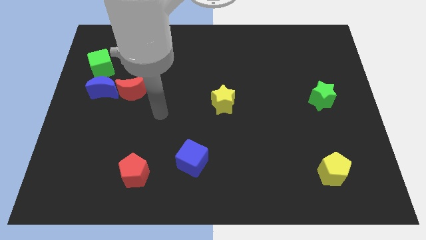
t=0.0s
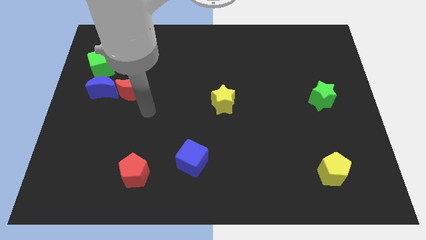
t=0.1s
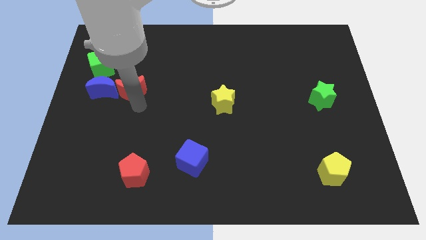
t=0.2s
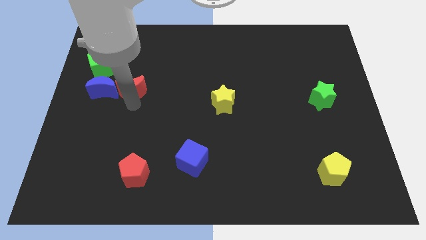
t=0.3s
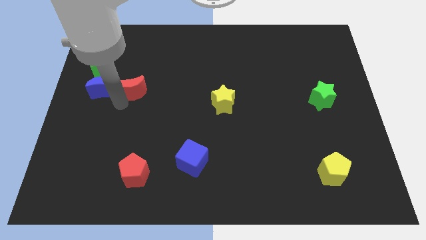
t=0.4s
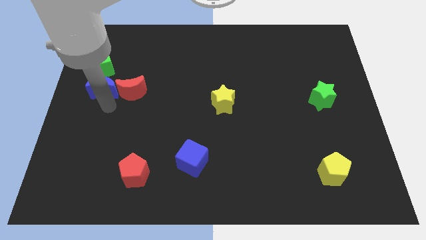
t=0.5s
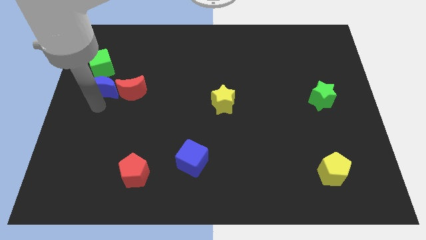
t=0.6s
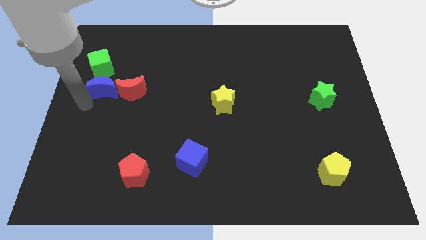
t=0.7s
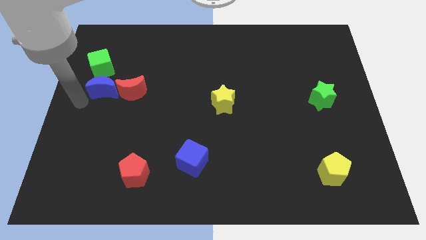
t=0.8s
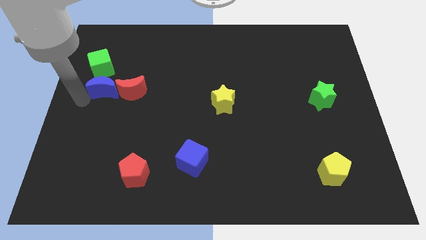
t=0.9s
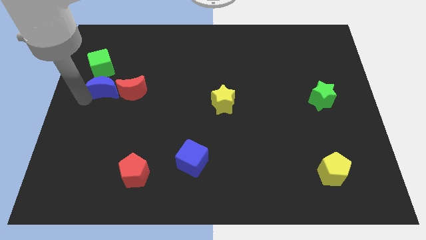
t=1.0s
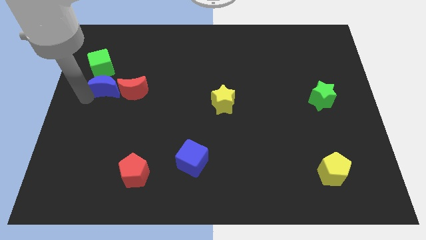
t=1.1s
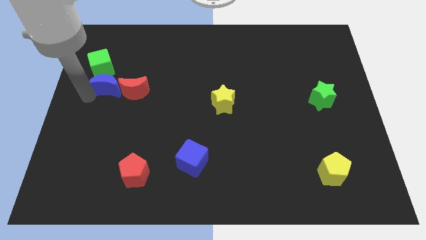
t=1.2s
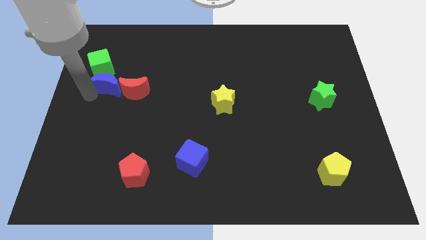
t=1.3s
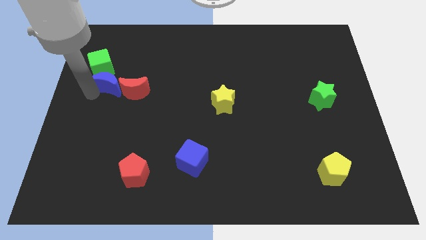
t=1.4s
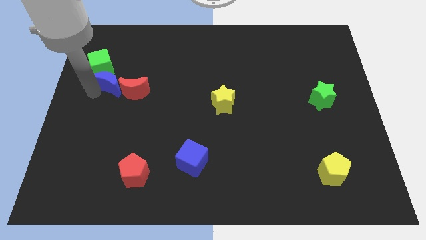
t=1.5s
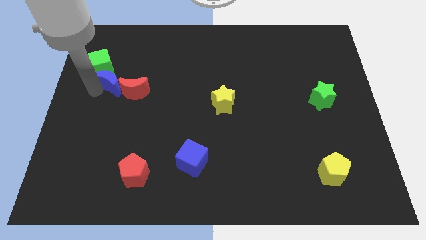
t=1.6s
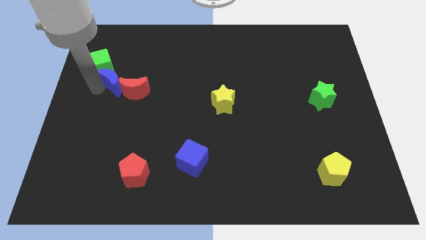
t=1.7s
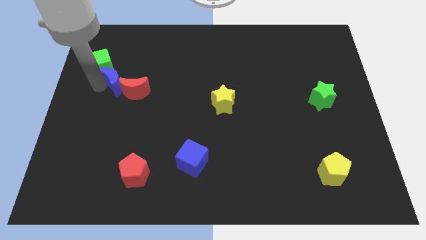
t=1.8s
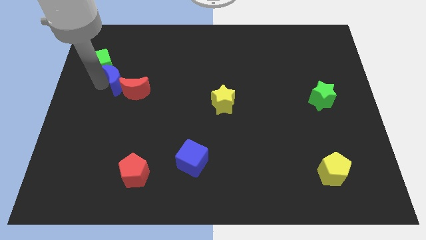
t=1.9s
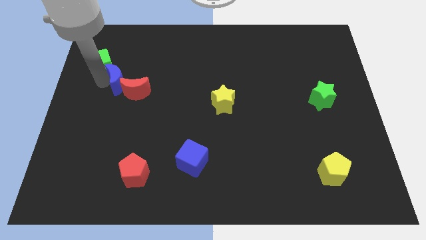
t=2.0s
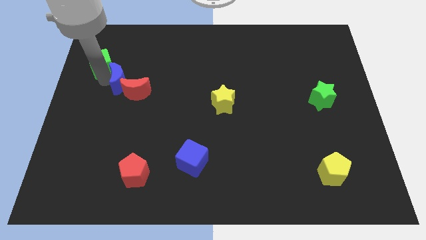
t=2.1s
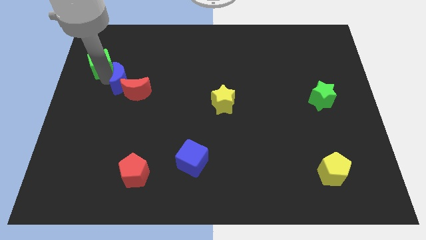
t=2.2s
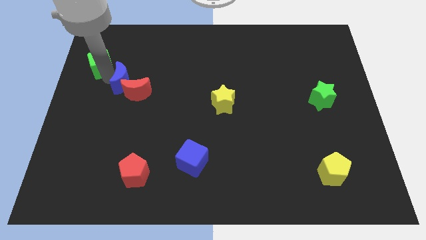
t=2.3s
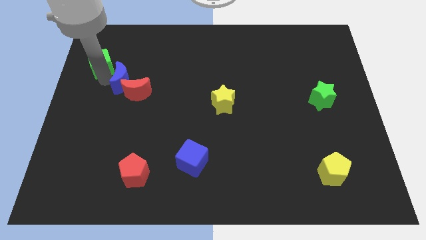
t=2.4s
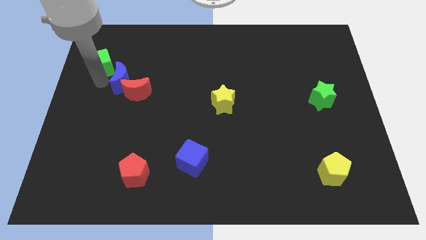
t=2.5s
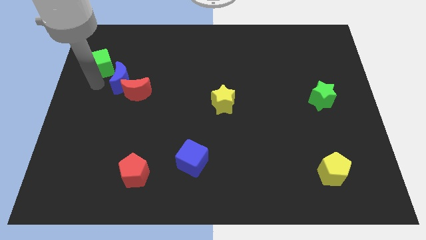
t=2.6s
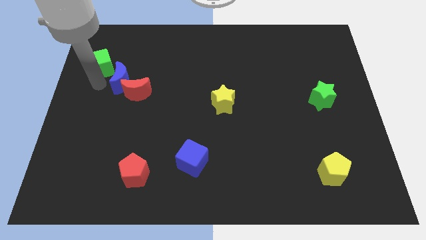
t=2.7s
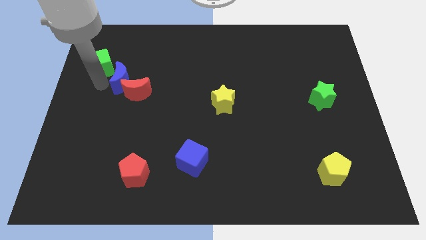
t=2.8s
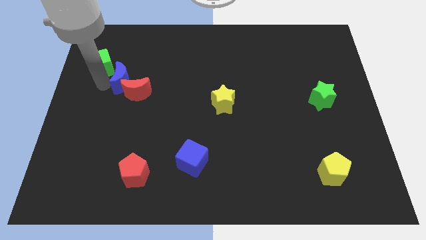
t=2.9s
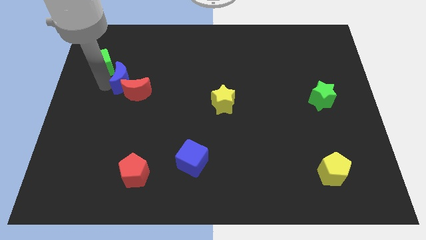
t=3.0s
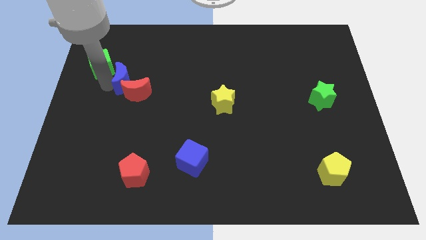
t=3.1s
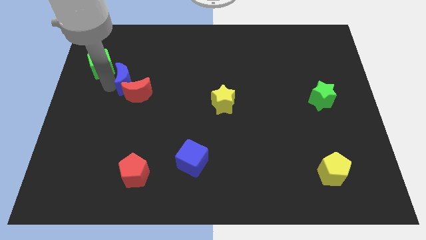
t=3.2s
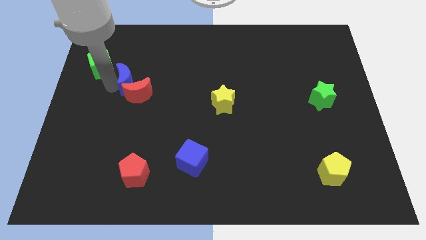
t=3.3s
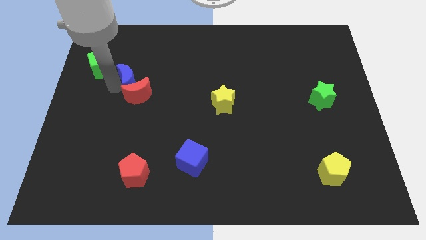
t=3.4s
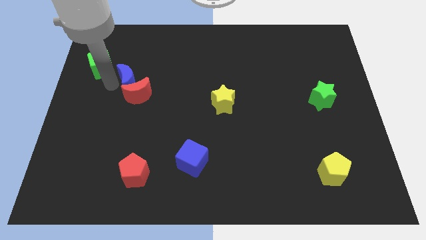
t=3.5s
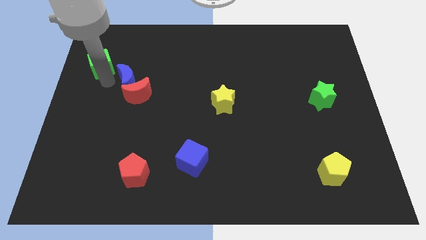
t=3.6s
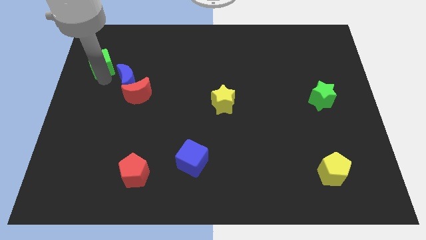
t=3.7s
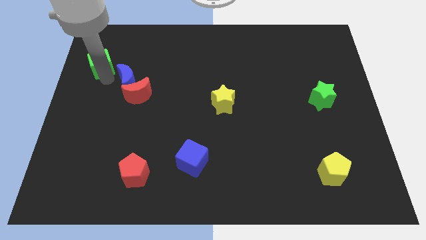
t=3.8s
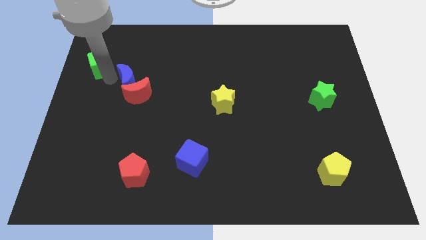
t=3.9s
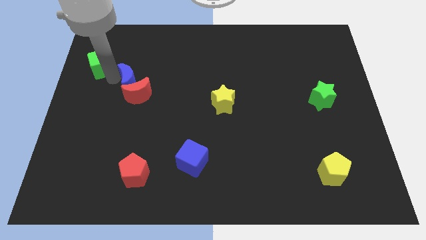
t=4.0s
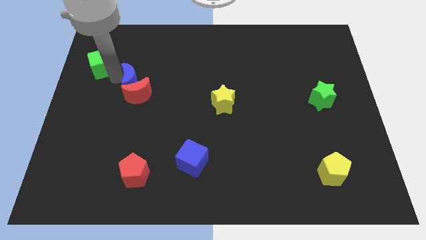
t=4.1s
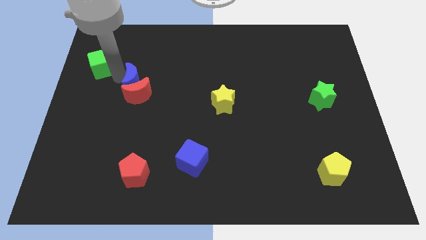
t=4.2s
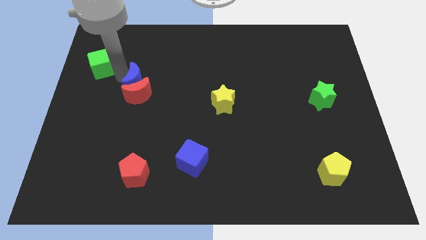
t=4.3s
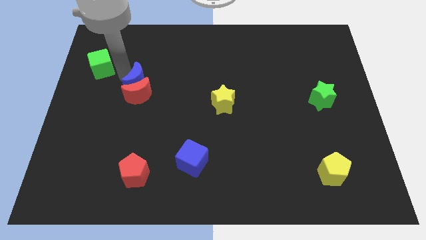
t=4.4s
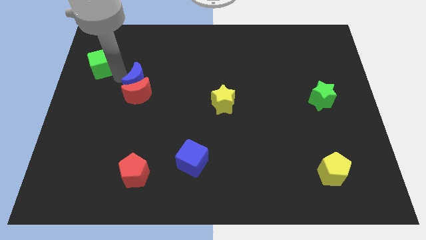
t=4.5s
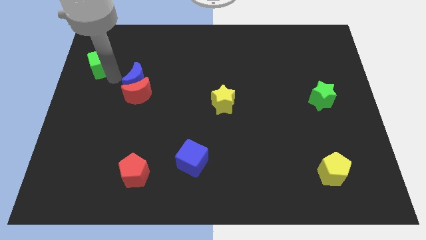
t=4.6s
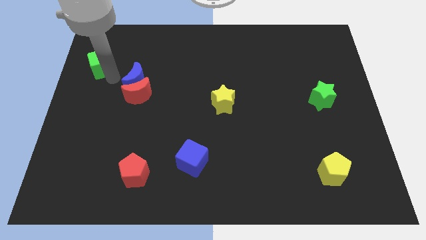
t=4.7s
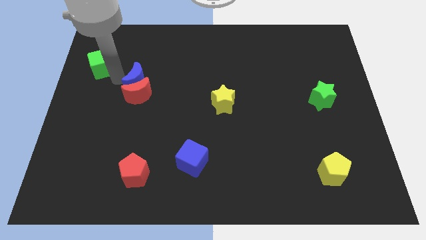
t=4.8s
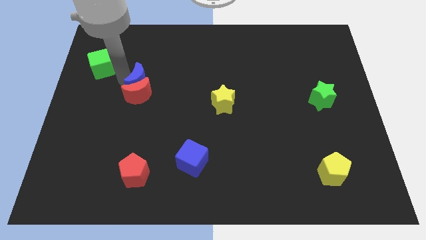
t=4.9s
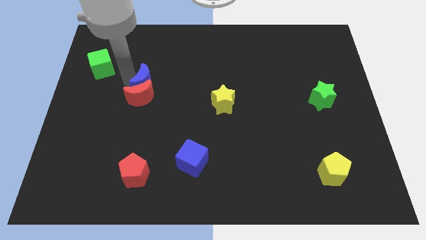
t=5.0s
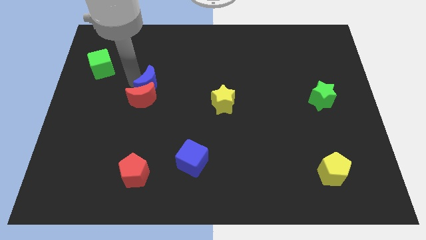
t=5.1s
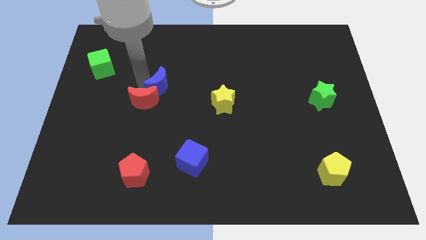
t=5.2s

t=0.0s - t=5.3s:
push the blue moon just right of the red moon

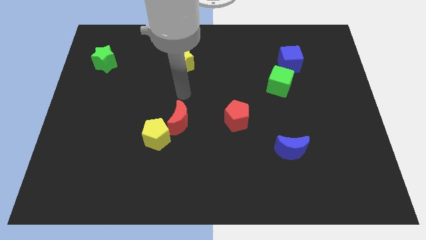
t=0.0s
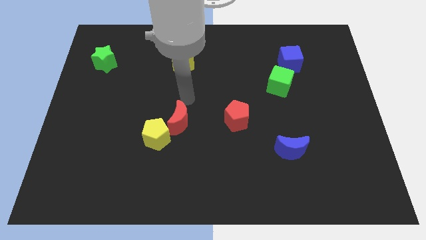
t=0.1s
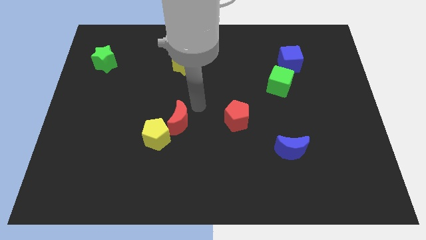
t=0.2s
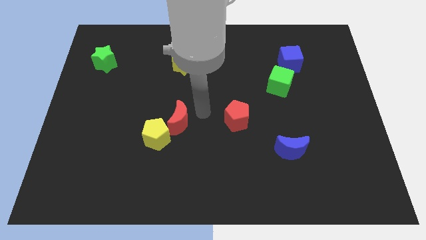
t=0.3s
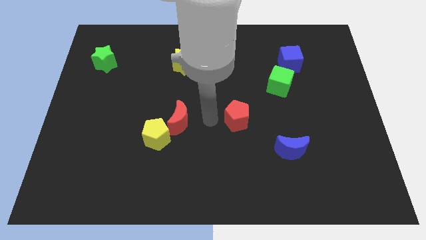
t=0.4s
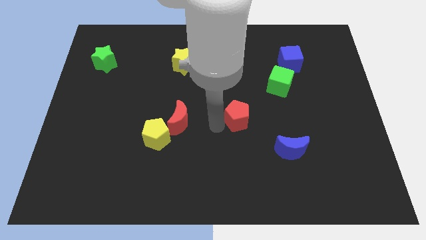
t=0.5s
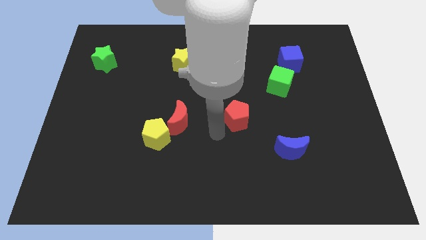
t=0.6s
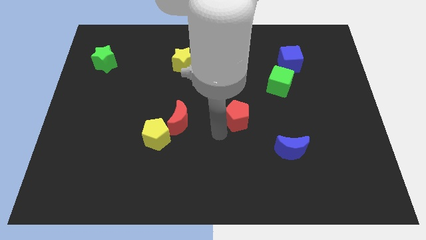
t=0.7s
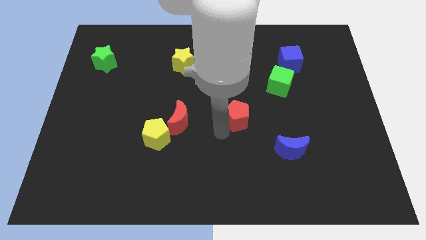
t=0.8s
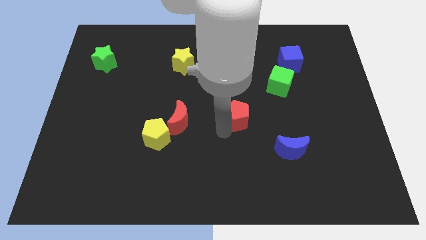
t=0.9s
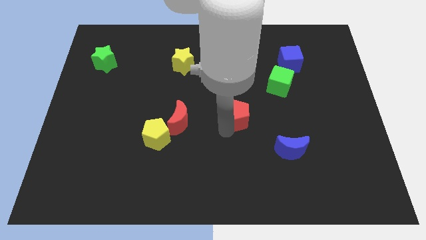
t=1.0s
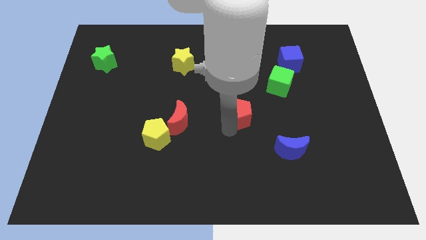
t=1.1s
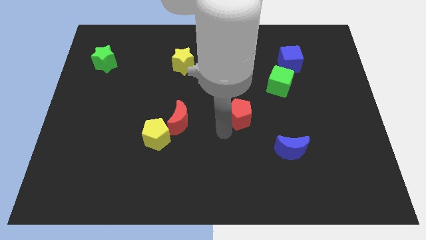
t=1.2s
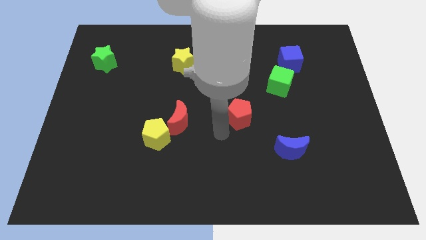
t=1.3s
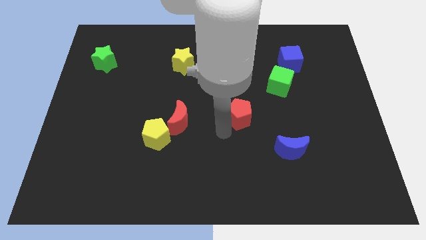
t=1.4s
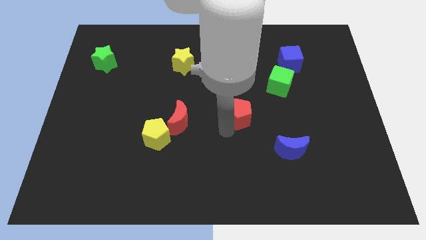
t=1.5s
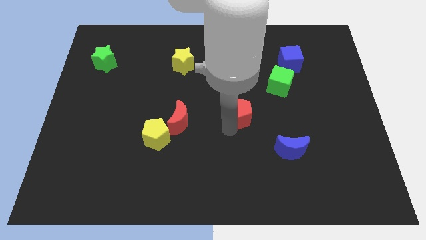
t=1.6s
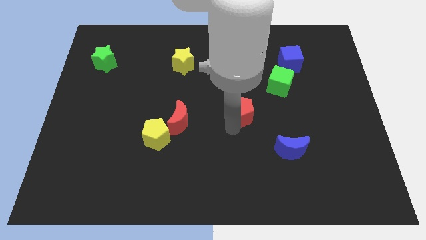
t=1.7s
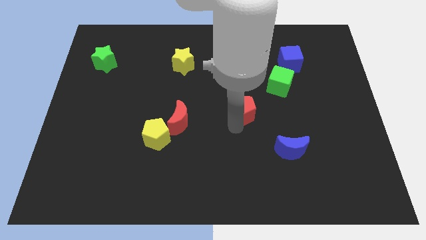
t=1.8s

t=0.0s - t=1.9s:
put the red pentagon to the bottom left side of the green cube

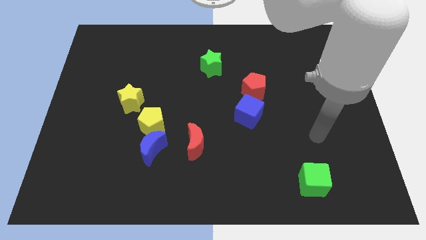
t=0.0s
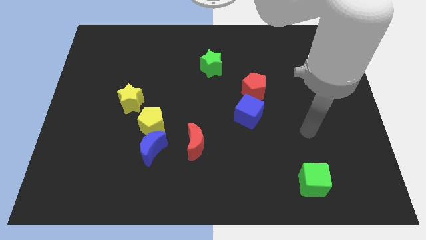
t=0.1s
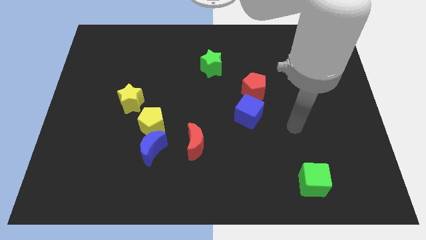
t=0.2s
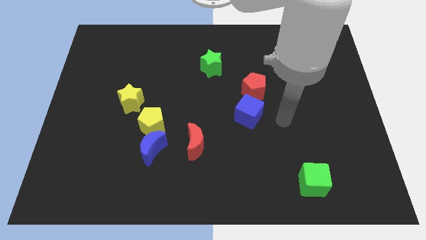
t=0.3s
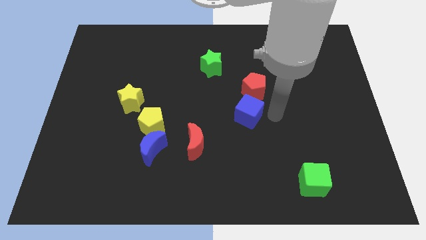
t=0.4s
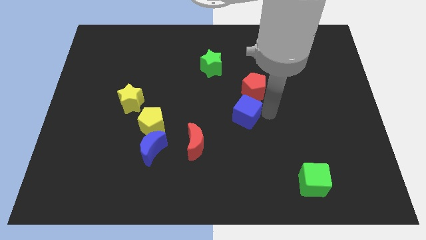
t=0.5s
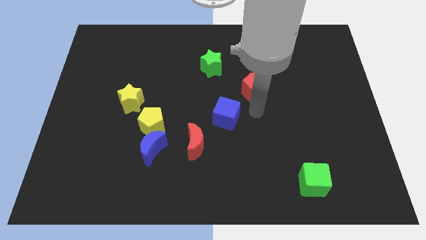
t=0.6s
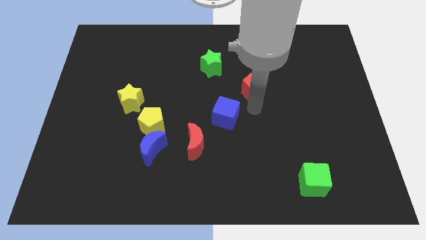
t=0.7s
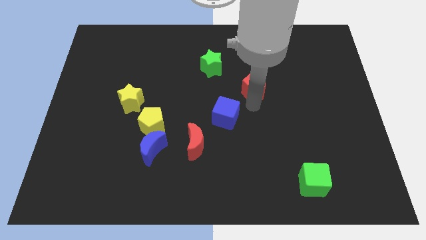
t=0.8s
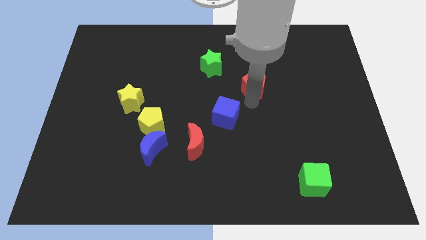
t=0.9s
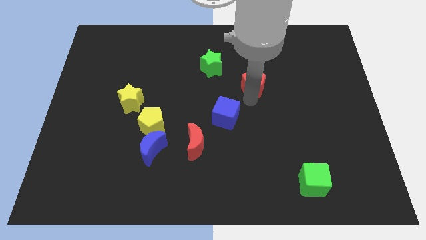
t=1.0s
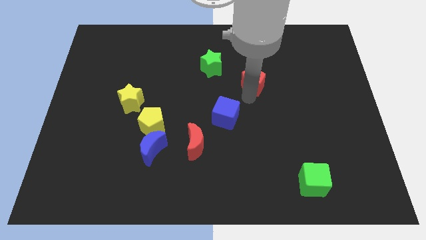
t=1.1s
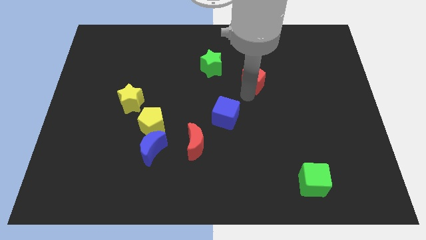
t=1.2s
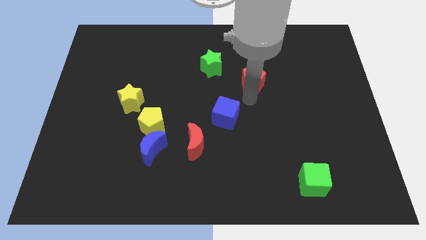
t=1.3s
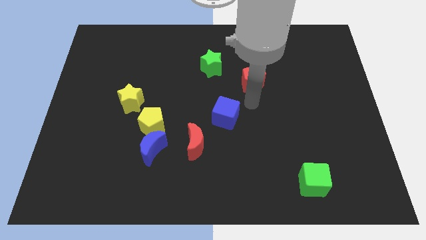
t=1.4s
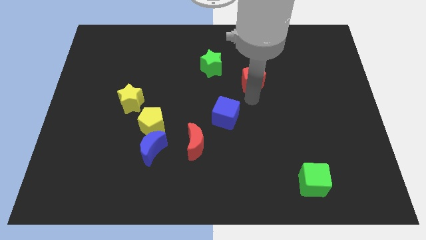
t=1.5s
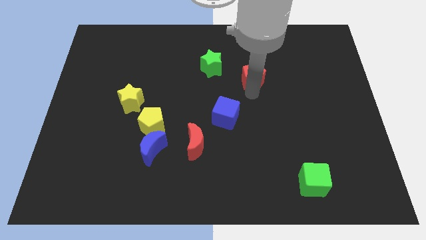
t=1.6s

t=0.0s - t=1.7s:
push the red pentagon to the right of the green star
